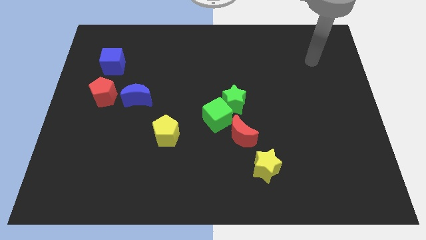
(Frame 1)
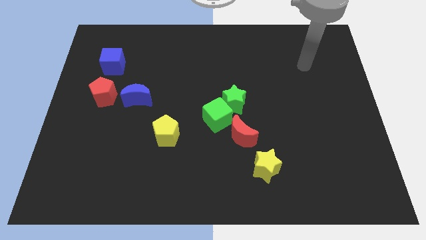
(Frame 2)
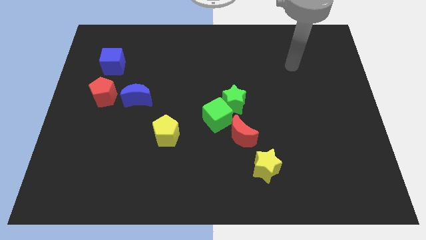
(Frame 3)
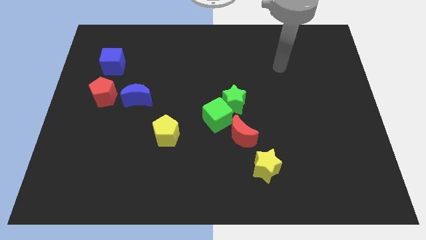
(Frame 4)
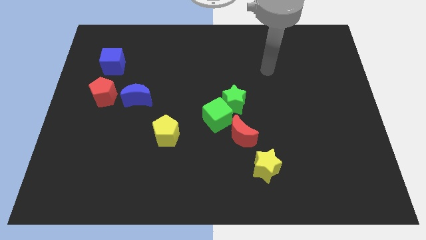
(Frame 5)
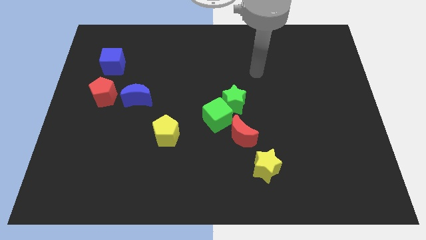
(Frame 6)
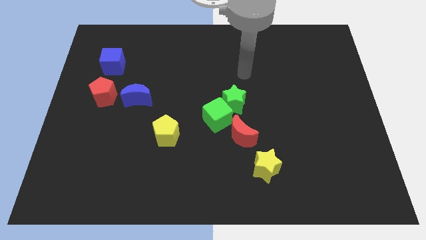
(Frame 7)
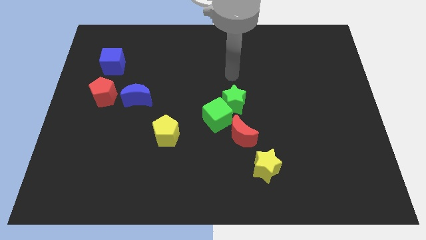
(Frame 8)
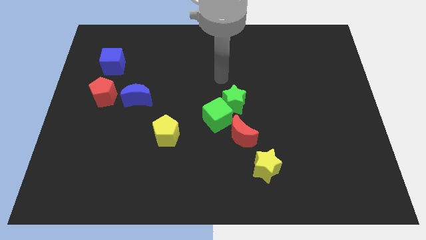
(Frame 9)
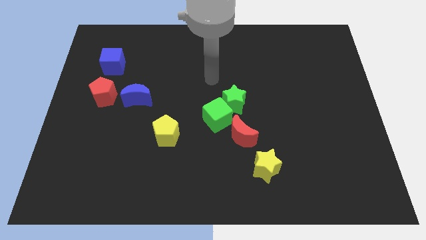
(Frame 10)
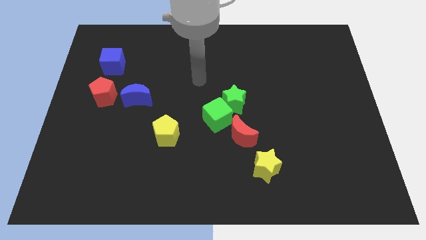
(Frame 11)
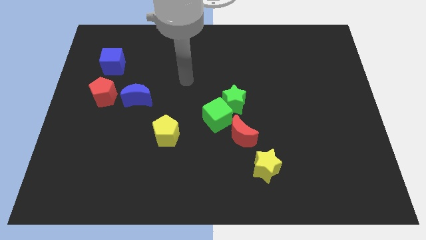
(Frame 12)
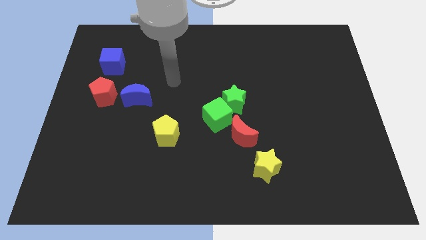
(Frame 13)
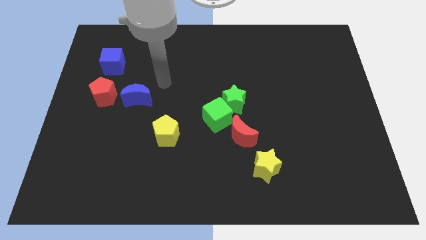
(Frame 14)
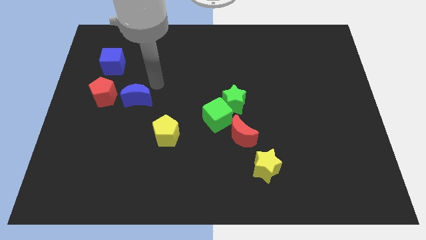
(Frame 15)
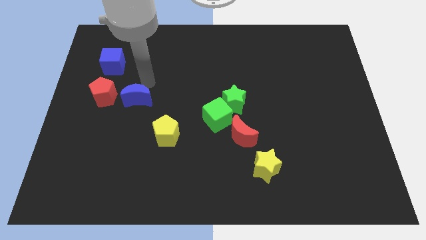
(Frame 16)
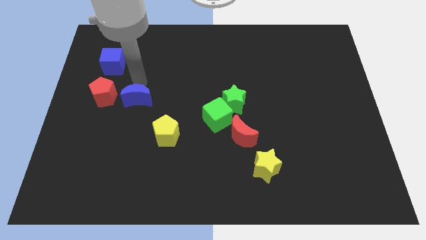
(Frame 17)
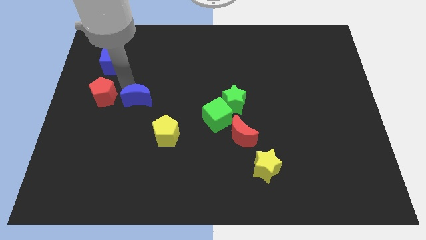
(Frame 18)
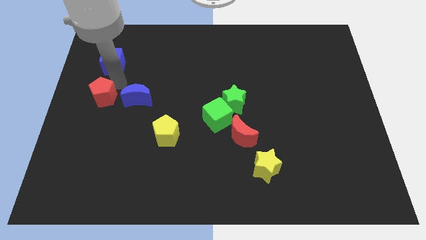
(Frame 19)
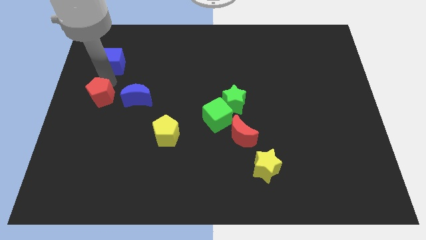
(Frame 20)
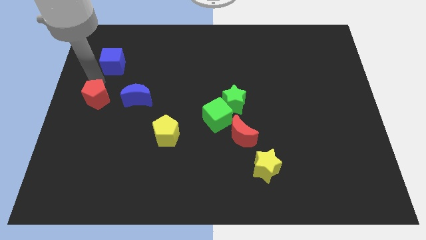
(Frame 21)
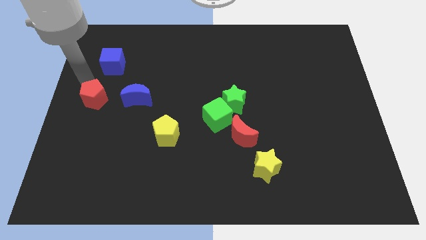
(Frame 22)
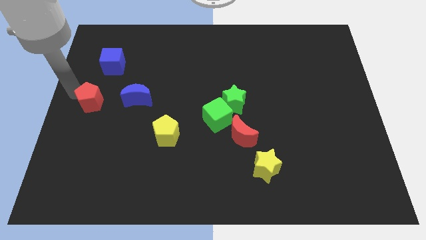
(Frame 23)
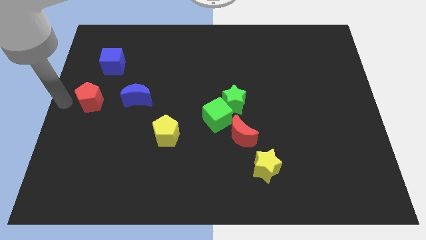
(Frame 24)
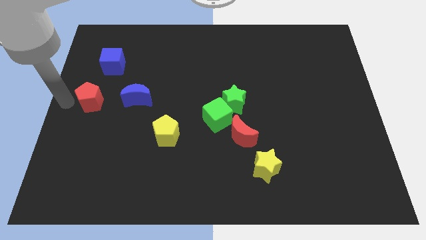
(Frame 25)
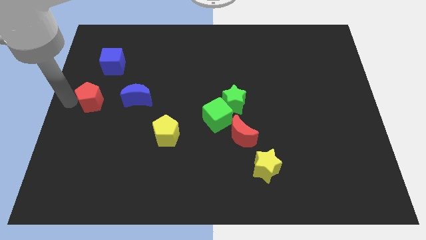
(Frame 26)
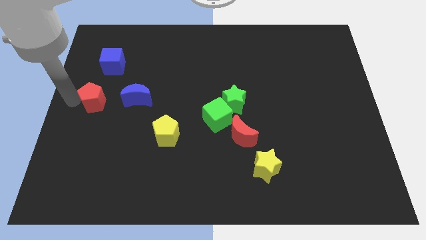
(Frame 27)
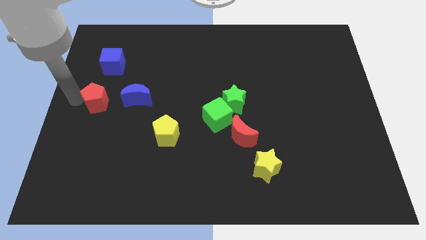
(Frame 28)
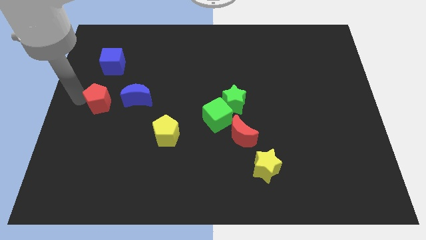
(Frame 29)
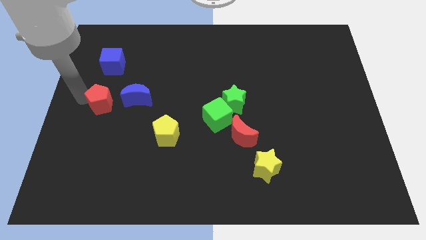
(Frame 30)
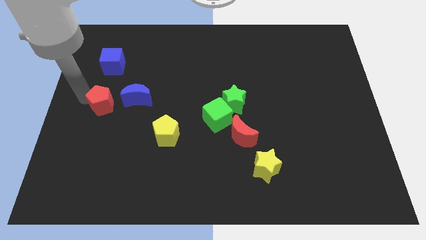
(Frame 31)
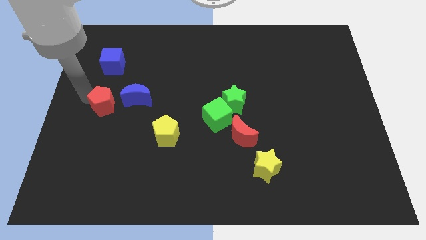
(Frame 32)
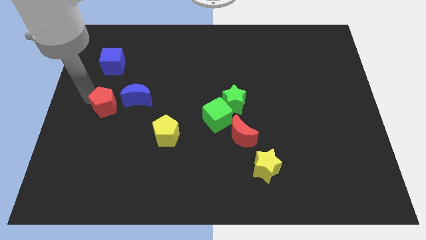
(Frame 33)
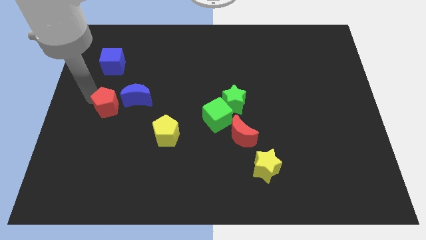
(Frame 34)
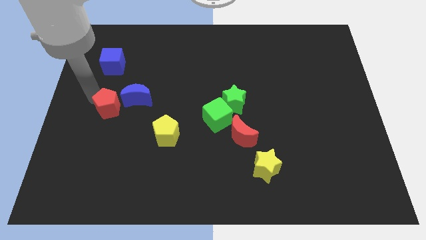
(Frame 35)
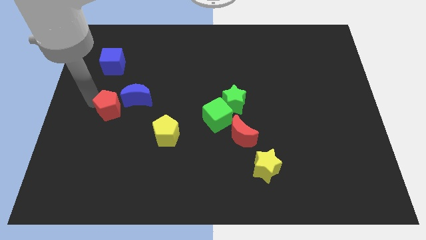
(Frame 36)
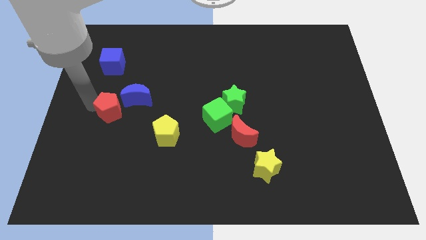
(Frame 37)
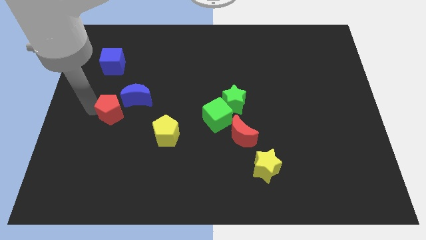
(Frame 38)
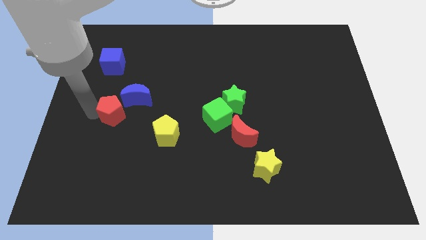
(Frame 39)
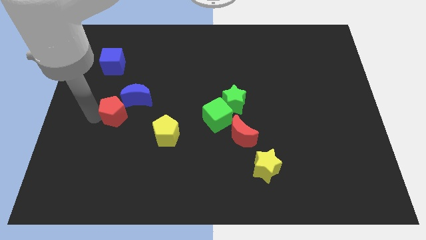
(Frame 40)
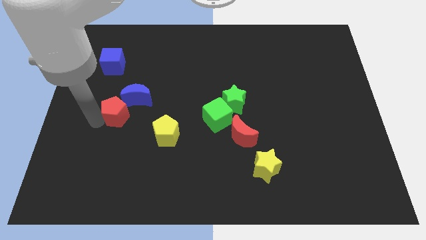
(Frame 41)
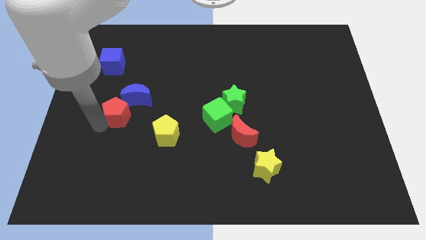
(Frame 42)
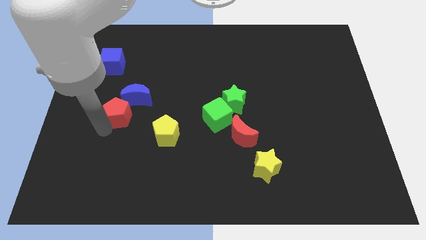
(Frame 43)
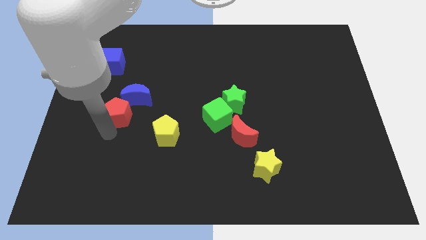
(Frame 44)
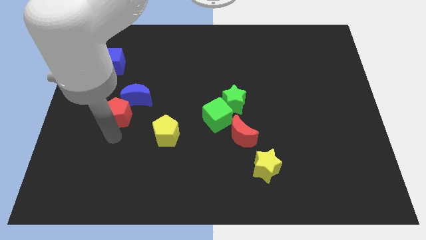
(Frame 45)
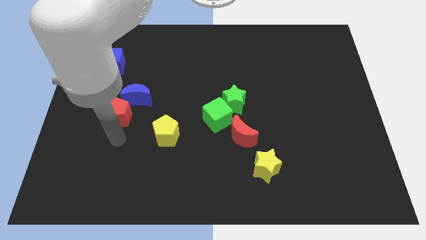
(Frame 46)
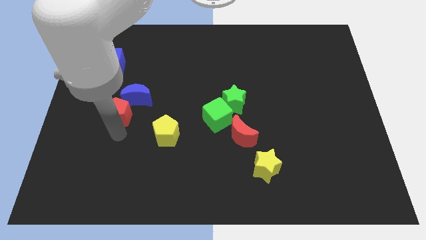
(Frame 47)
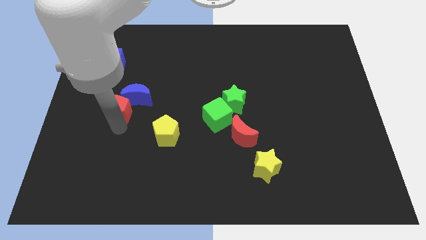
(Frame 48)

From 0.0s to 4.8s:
put the red pentagon to the blue moon

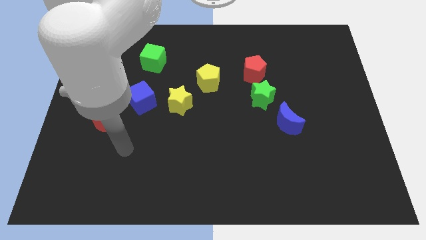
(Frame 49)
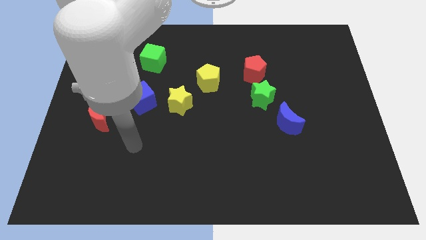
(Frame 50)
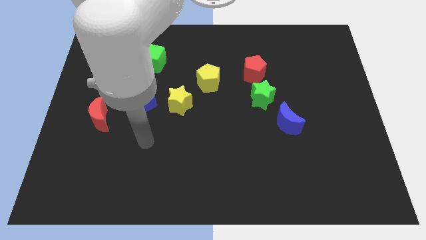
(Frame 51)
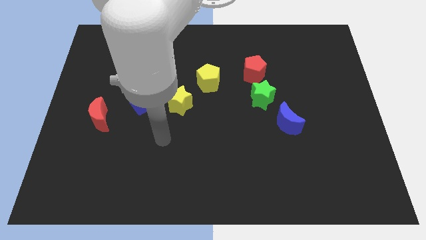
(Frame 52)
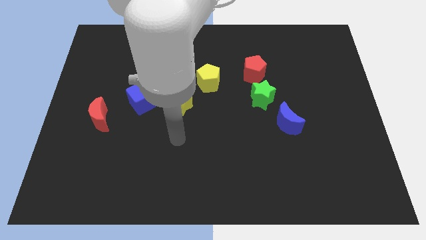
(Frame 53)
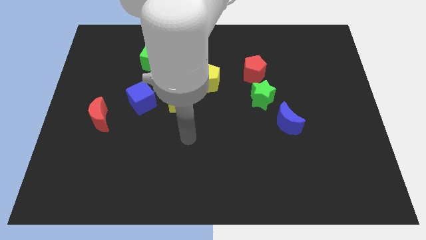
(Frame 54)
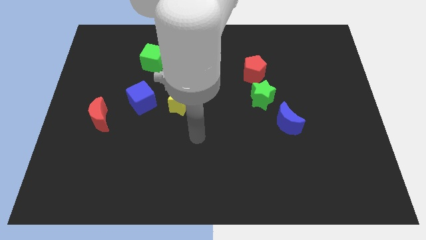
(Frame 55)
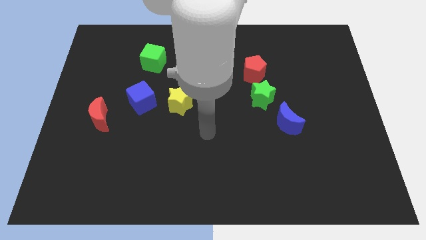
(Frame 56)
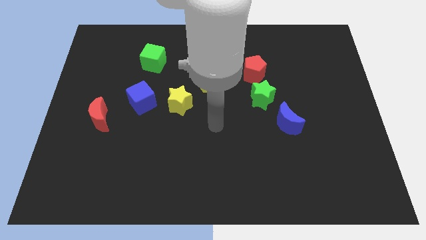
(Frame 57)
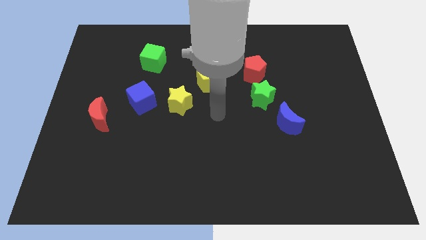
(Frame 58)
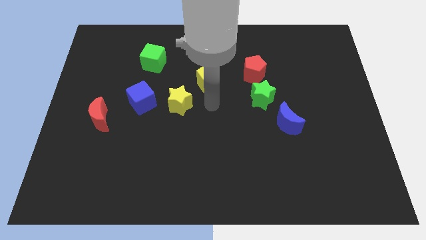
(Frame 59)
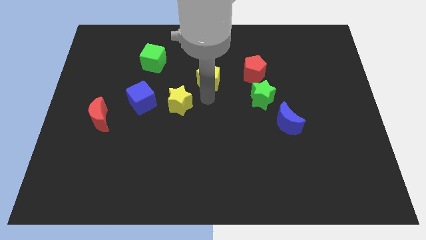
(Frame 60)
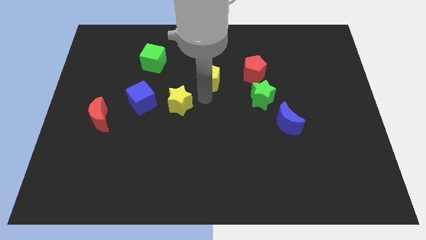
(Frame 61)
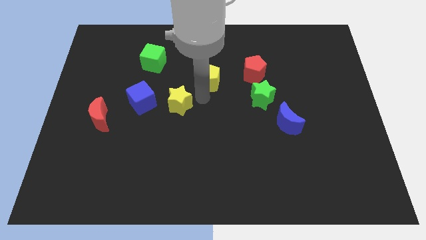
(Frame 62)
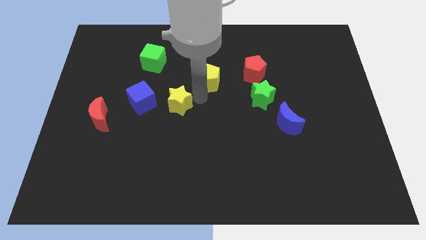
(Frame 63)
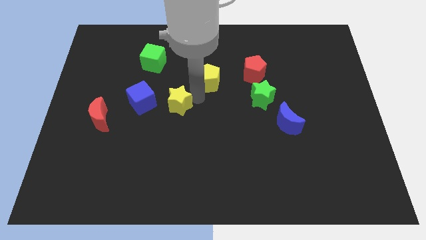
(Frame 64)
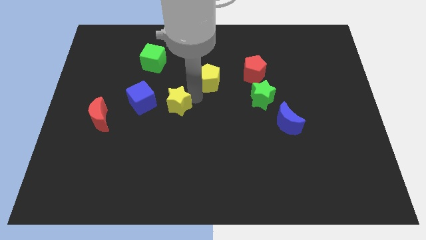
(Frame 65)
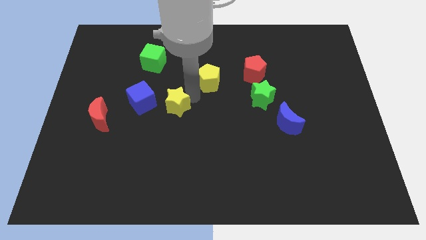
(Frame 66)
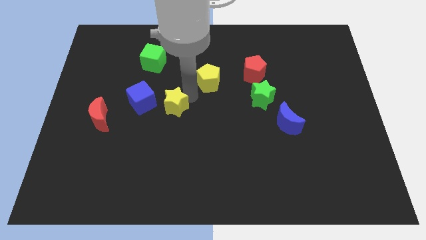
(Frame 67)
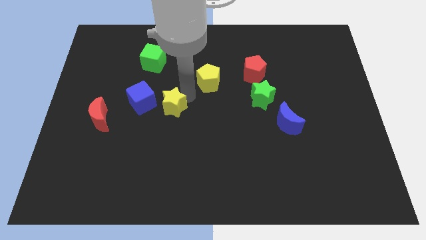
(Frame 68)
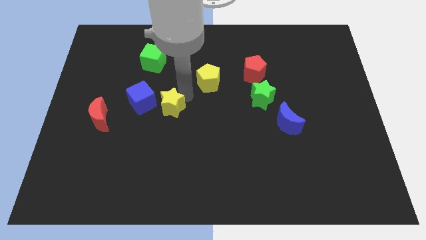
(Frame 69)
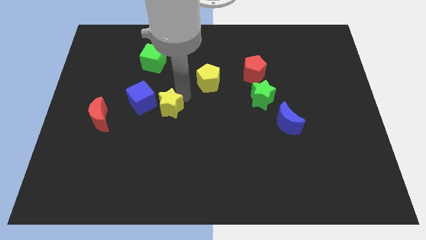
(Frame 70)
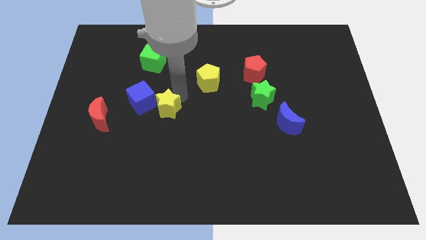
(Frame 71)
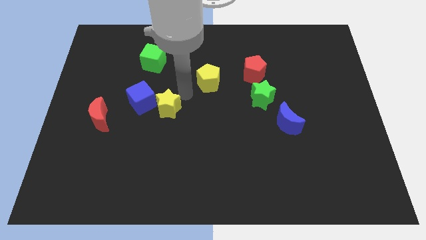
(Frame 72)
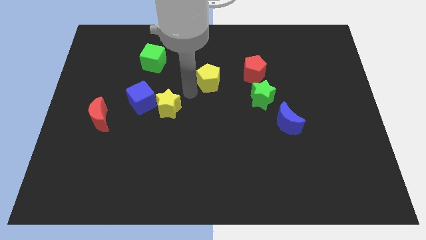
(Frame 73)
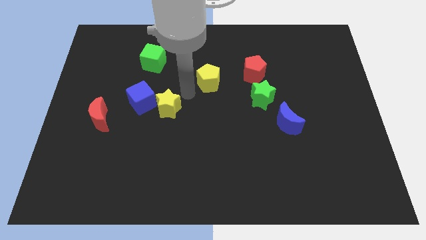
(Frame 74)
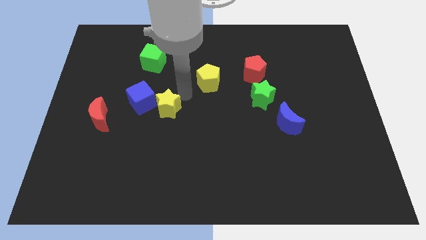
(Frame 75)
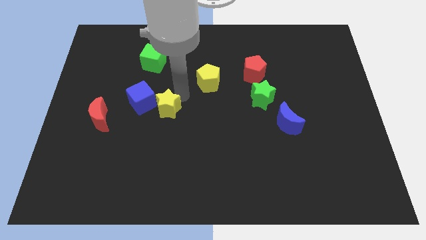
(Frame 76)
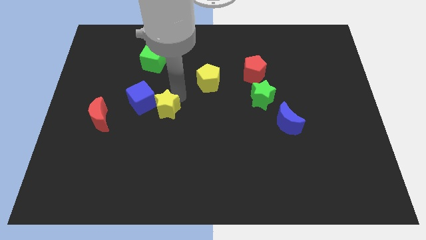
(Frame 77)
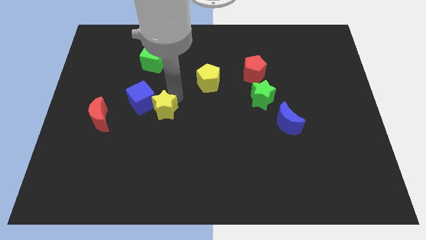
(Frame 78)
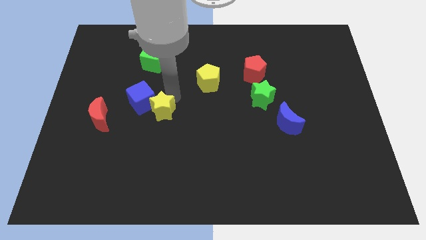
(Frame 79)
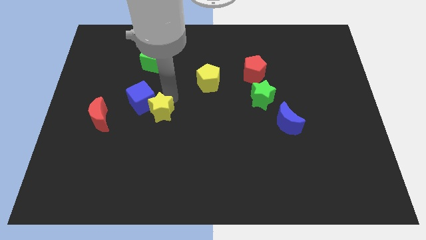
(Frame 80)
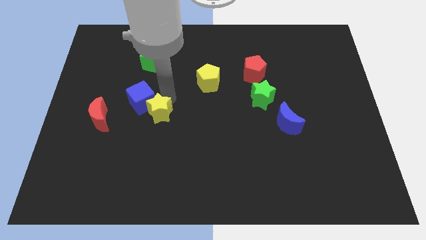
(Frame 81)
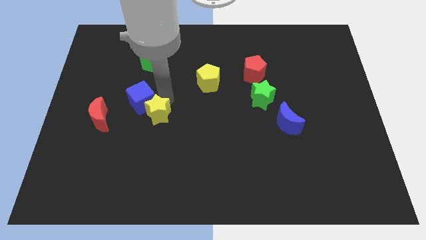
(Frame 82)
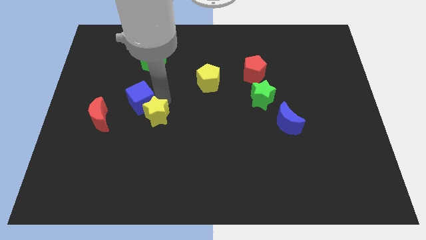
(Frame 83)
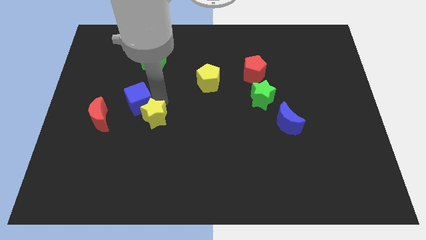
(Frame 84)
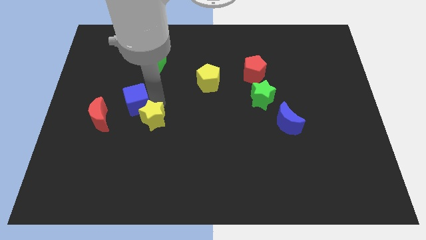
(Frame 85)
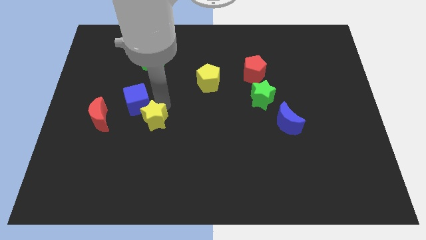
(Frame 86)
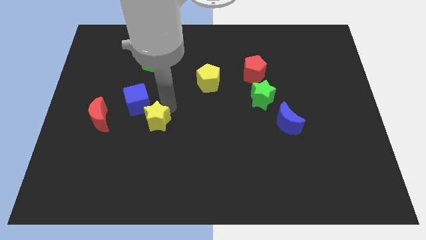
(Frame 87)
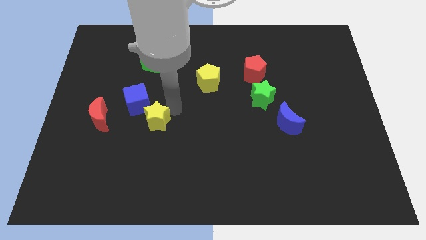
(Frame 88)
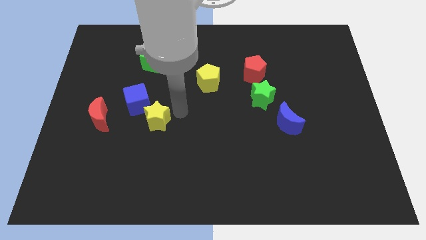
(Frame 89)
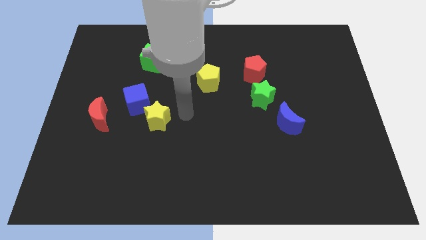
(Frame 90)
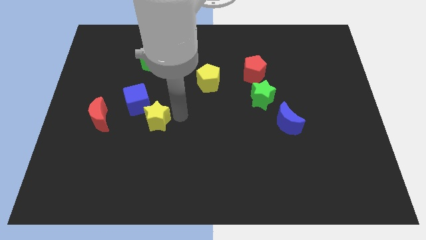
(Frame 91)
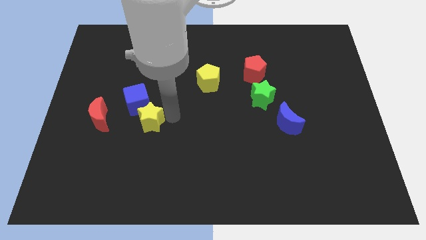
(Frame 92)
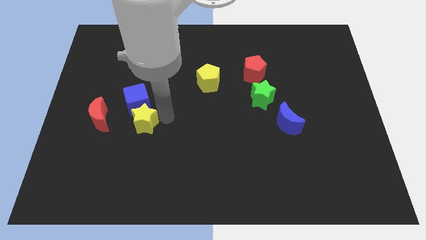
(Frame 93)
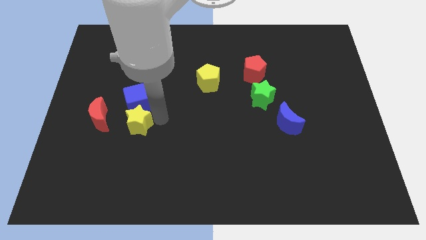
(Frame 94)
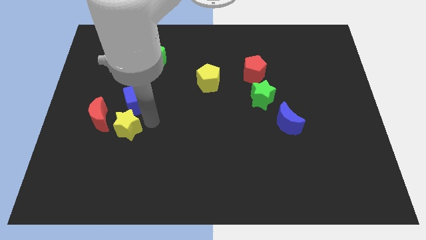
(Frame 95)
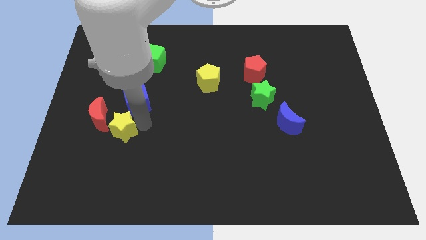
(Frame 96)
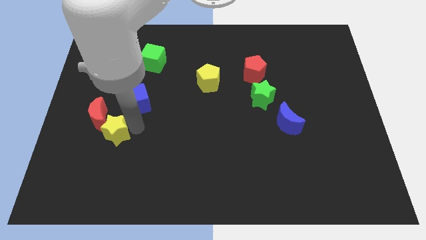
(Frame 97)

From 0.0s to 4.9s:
push the yellow star close to the red moon
